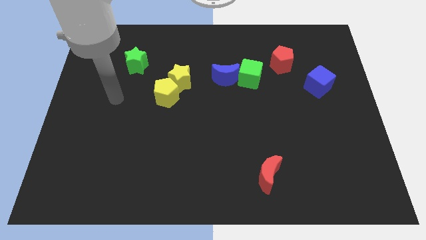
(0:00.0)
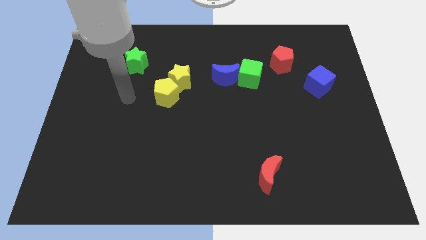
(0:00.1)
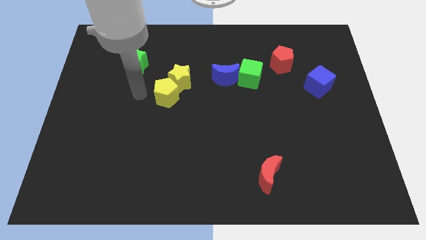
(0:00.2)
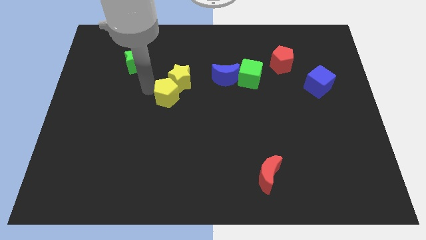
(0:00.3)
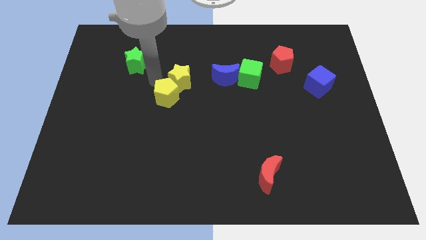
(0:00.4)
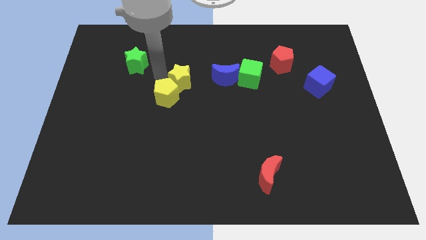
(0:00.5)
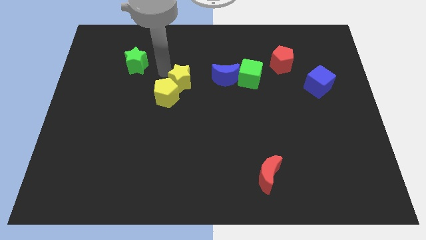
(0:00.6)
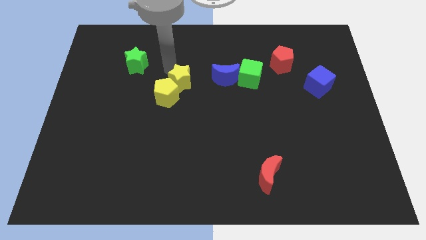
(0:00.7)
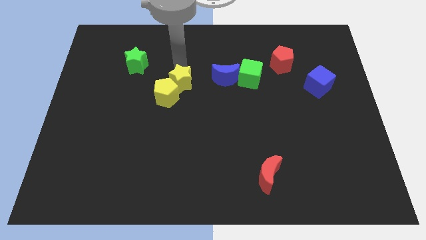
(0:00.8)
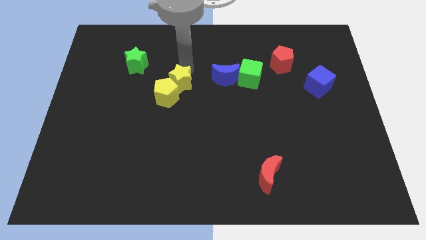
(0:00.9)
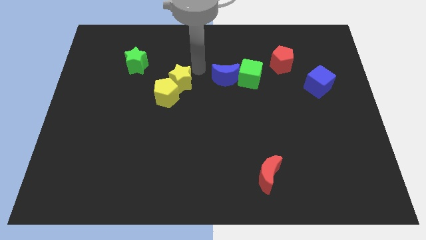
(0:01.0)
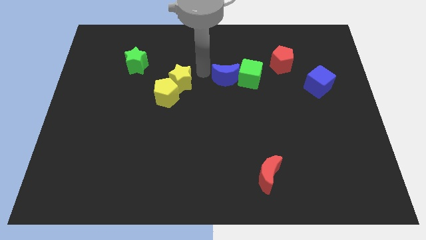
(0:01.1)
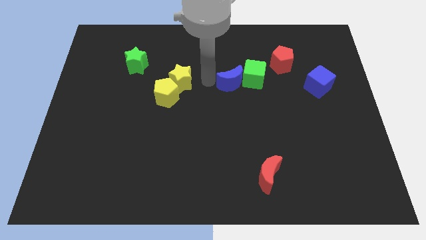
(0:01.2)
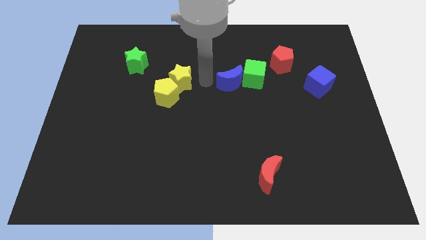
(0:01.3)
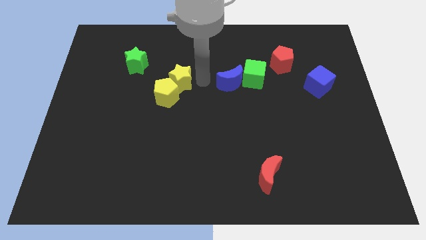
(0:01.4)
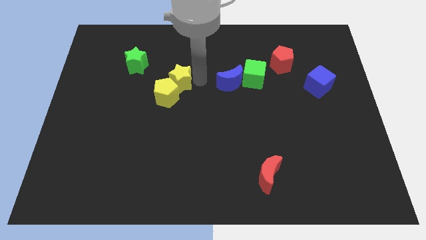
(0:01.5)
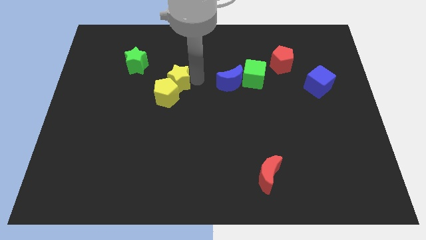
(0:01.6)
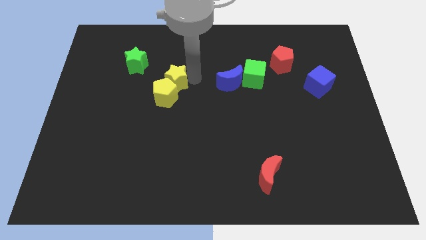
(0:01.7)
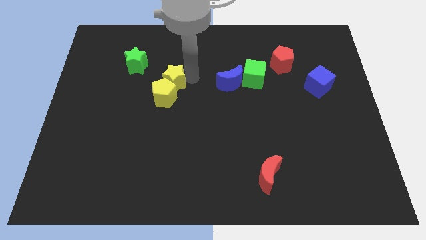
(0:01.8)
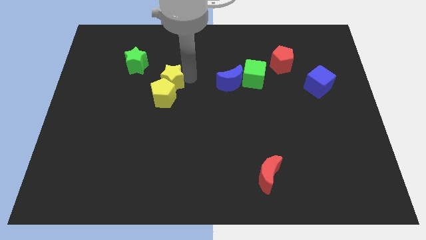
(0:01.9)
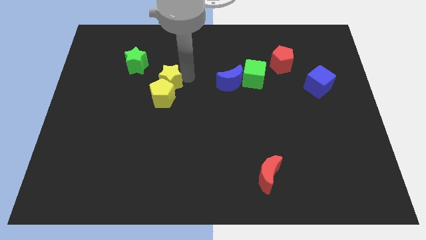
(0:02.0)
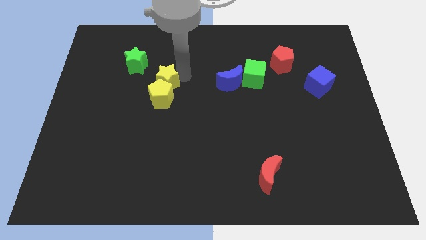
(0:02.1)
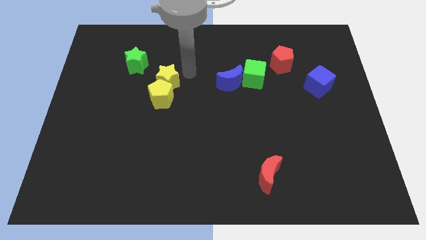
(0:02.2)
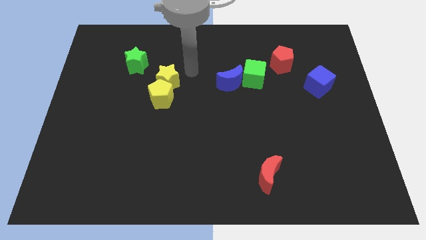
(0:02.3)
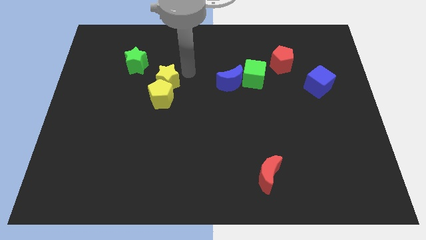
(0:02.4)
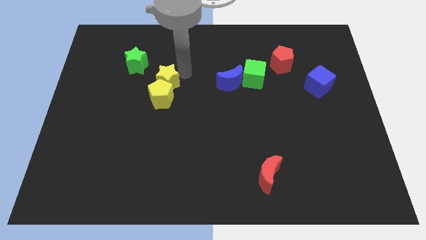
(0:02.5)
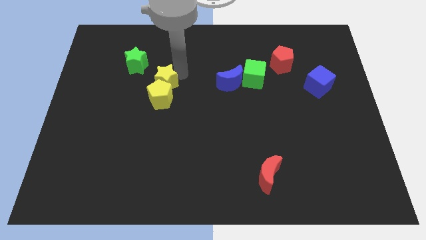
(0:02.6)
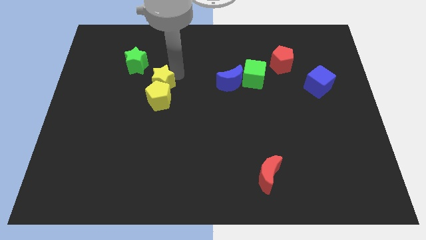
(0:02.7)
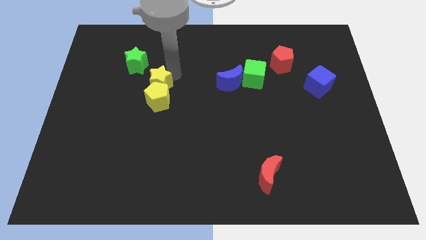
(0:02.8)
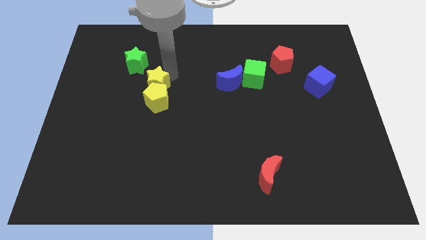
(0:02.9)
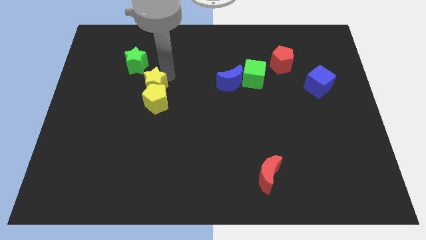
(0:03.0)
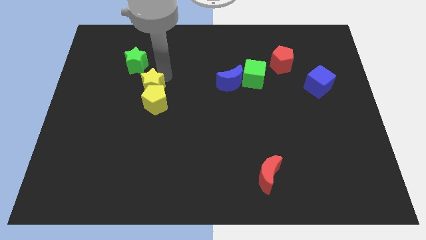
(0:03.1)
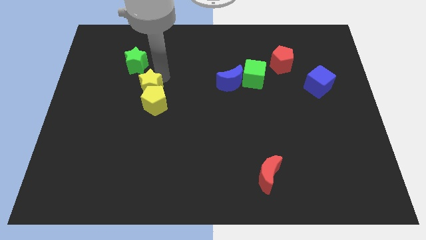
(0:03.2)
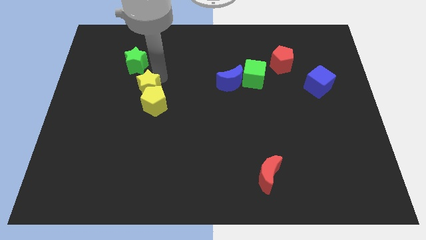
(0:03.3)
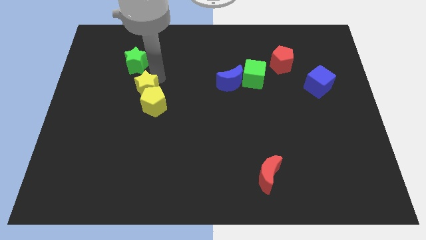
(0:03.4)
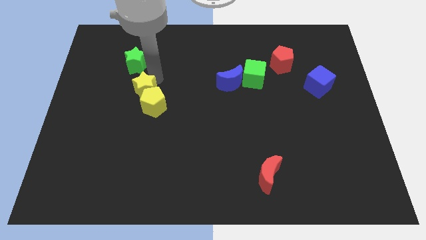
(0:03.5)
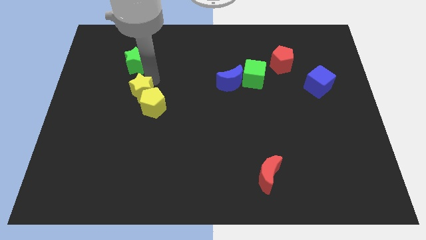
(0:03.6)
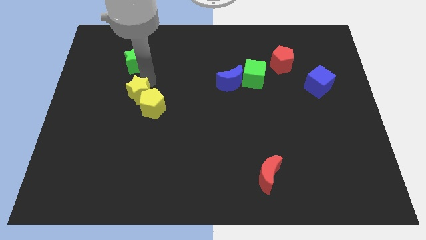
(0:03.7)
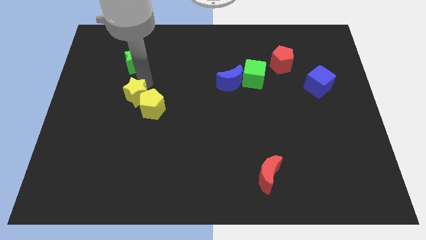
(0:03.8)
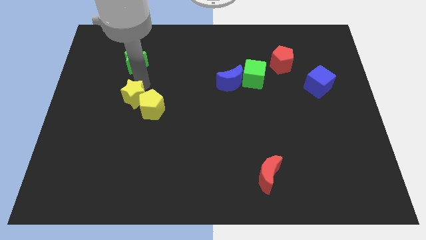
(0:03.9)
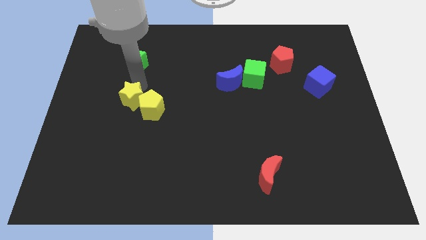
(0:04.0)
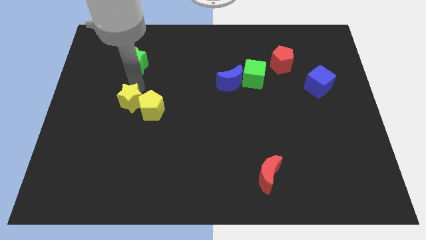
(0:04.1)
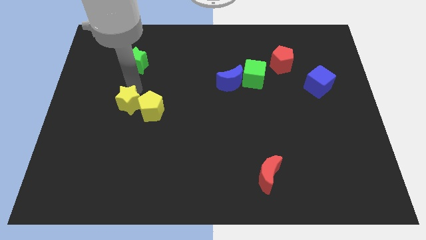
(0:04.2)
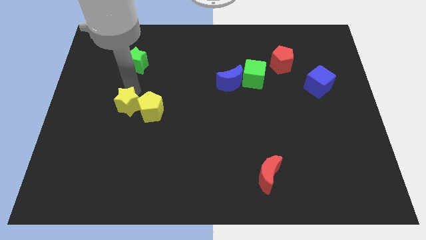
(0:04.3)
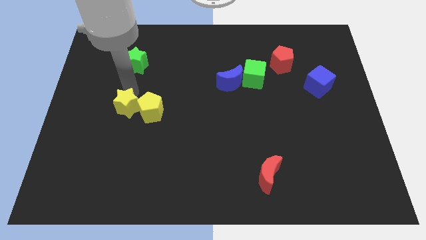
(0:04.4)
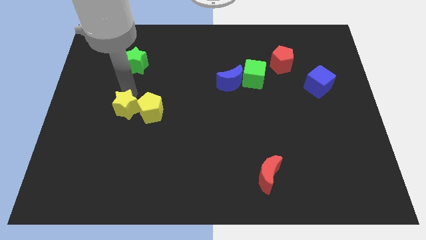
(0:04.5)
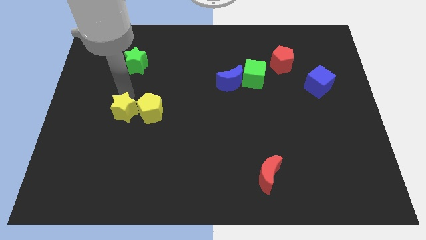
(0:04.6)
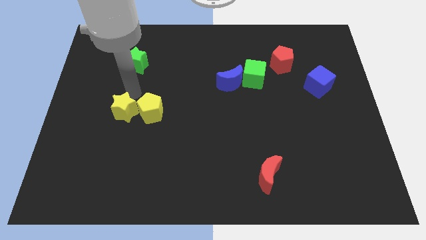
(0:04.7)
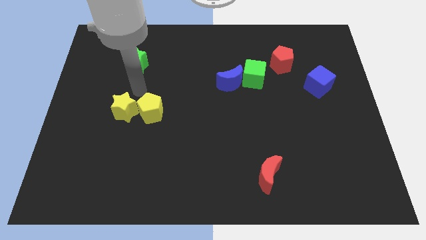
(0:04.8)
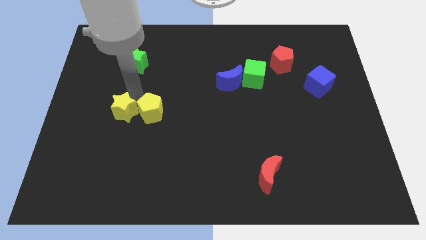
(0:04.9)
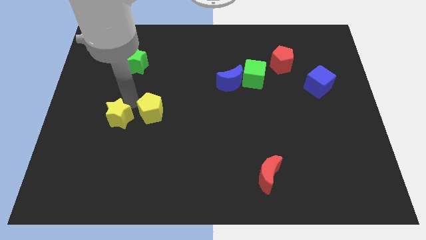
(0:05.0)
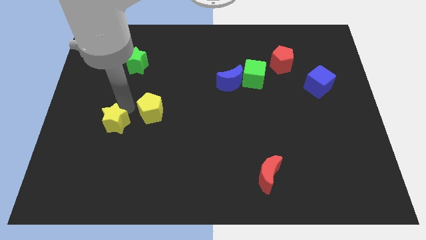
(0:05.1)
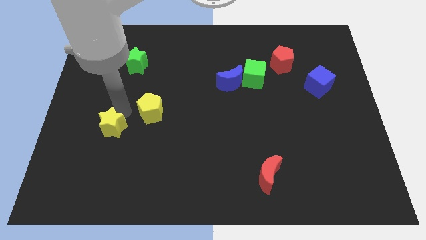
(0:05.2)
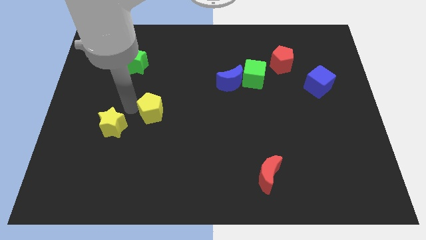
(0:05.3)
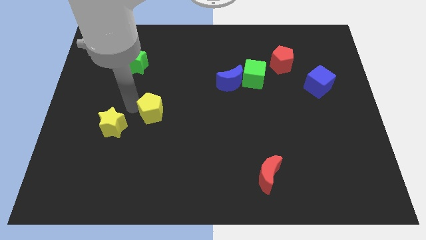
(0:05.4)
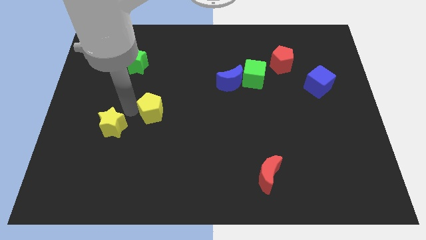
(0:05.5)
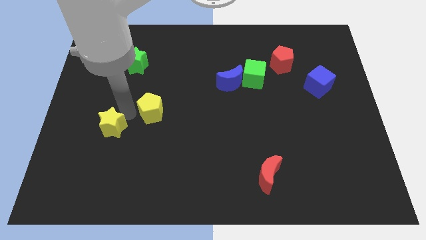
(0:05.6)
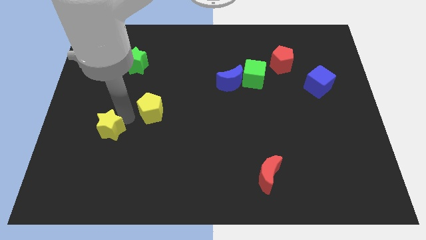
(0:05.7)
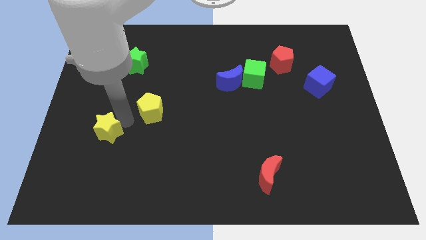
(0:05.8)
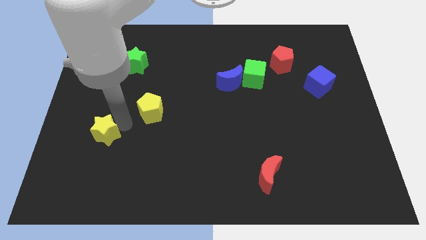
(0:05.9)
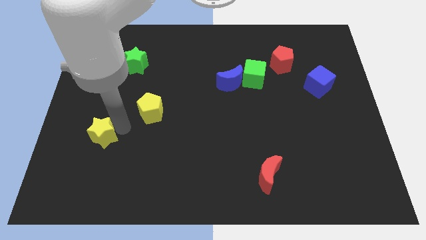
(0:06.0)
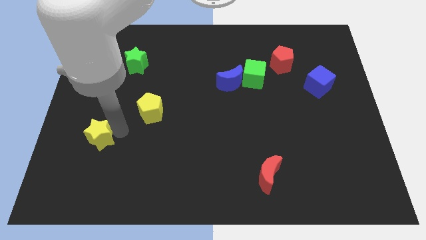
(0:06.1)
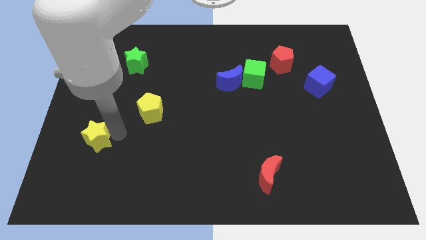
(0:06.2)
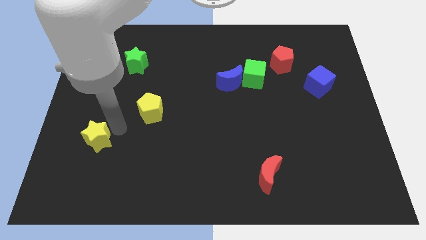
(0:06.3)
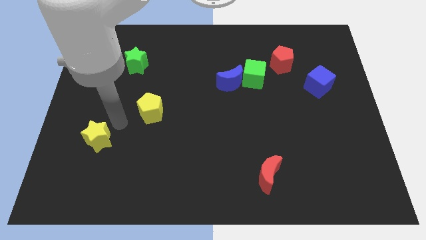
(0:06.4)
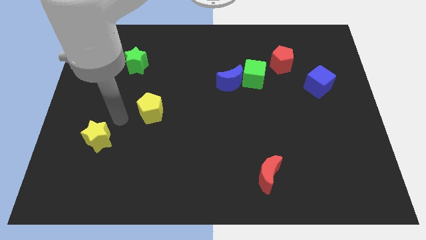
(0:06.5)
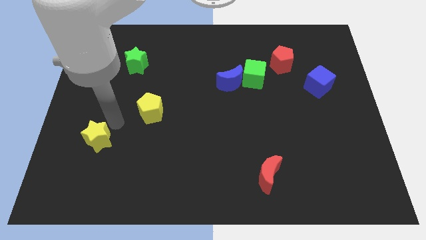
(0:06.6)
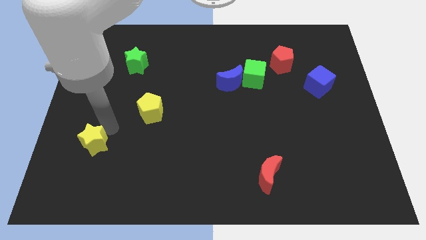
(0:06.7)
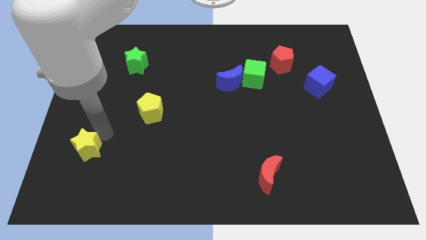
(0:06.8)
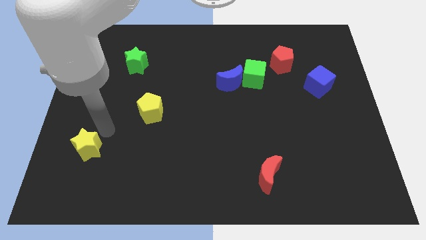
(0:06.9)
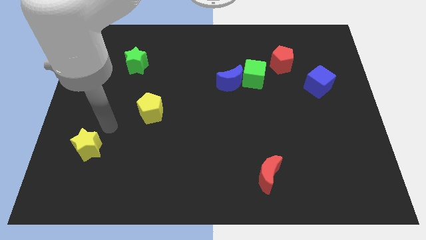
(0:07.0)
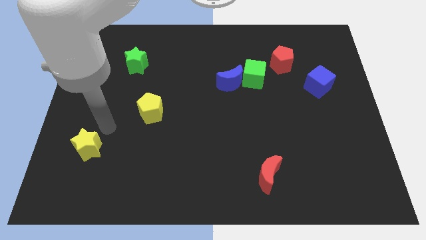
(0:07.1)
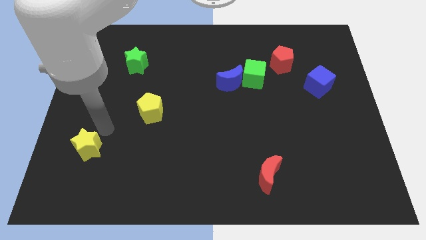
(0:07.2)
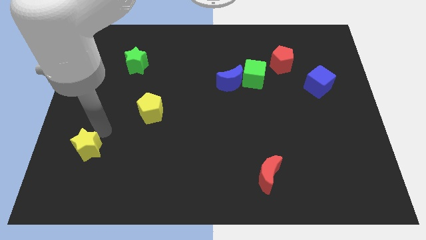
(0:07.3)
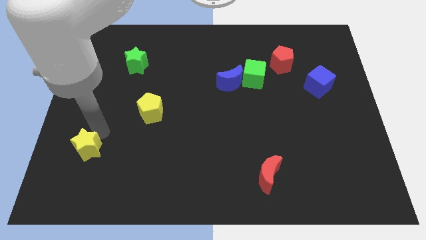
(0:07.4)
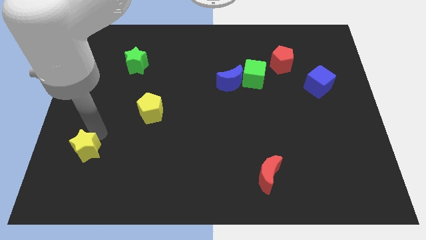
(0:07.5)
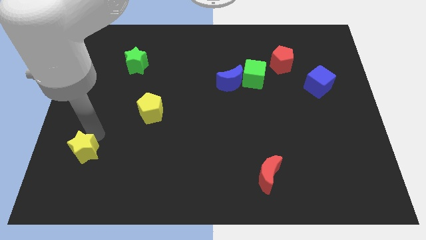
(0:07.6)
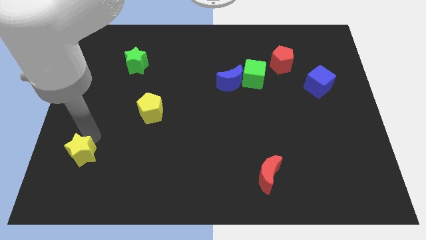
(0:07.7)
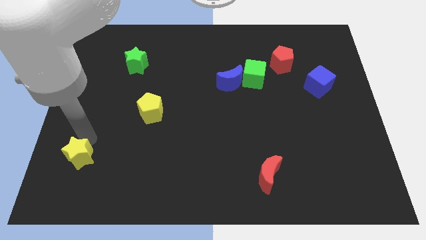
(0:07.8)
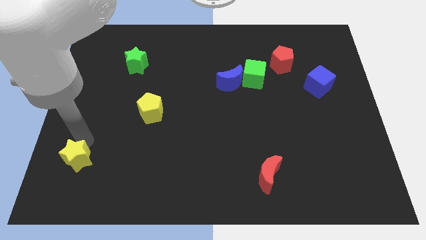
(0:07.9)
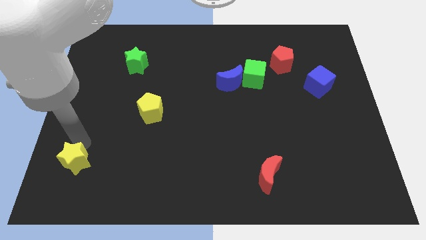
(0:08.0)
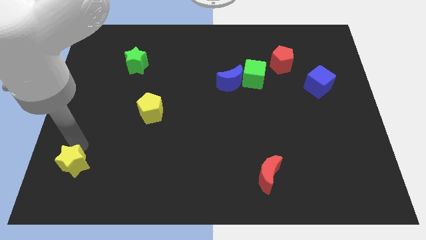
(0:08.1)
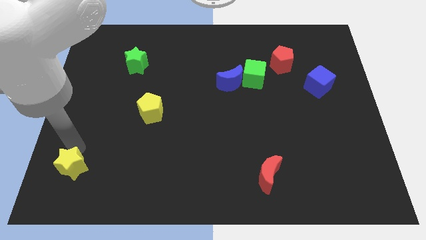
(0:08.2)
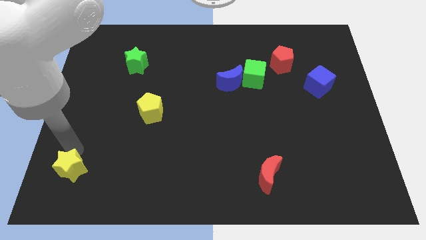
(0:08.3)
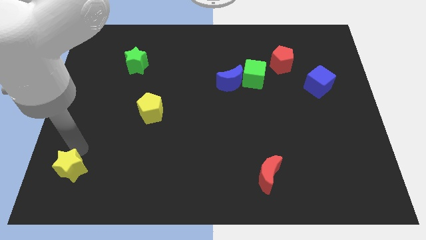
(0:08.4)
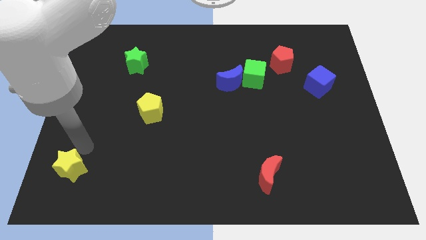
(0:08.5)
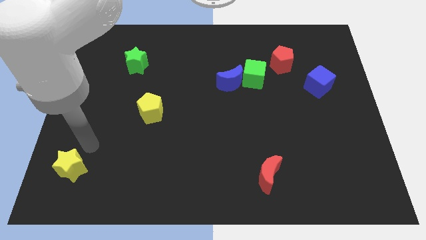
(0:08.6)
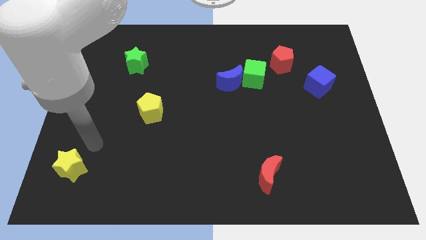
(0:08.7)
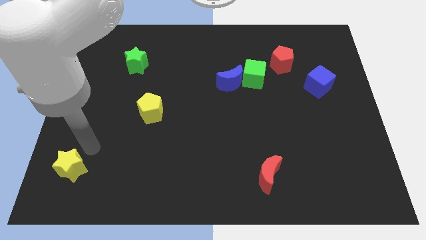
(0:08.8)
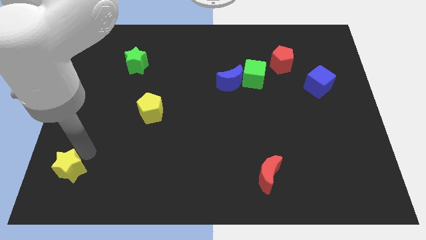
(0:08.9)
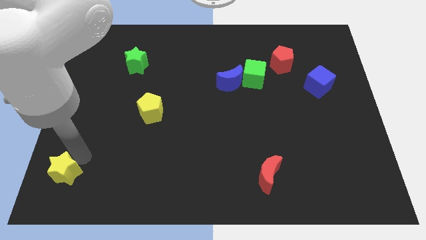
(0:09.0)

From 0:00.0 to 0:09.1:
move the yellow star to the bottom left corner
